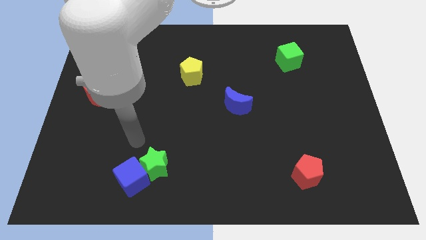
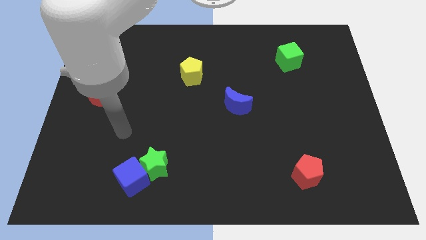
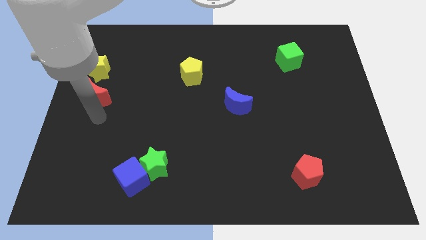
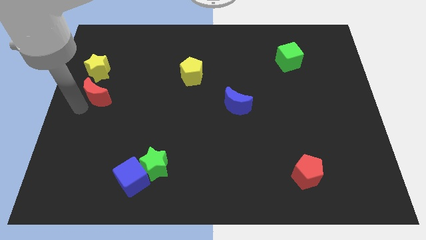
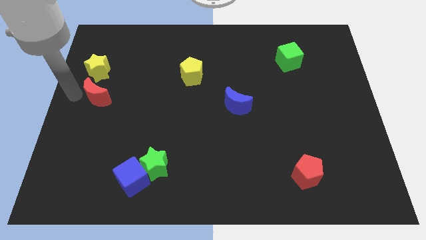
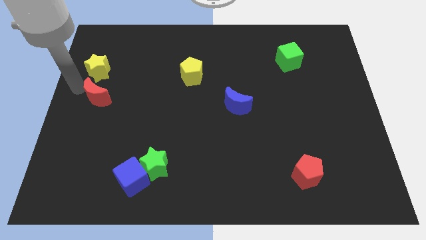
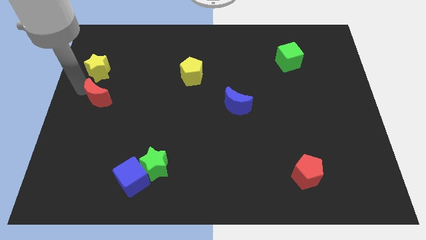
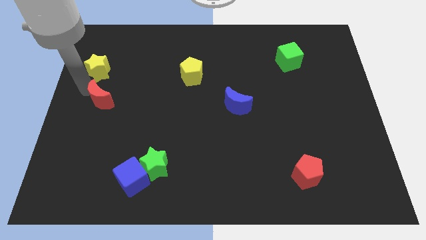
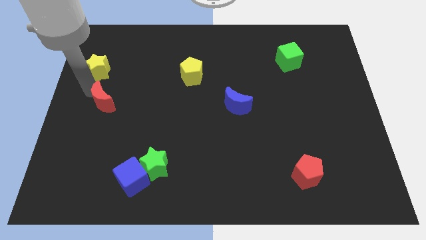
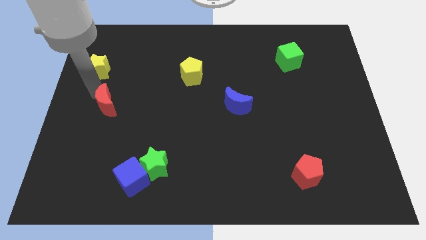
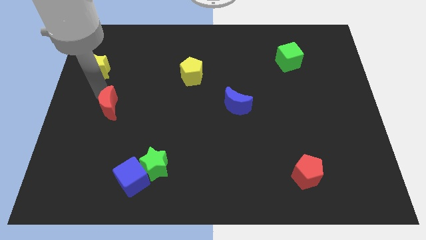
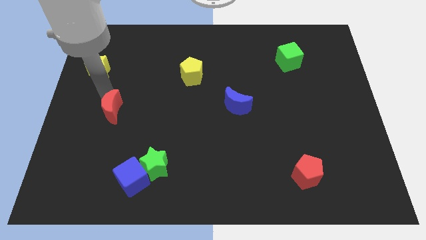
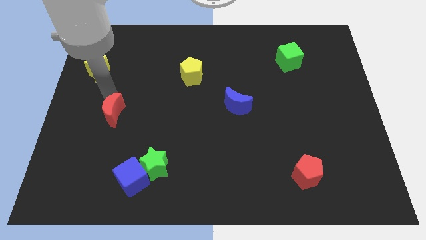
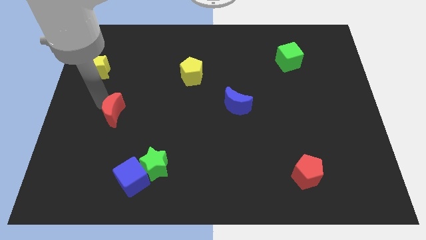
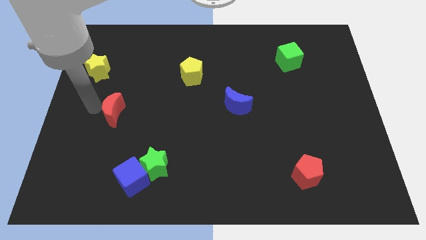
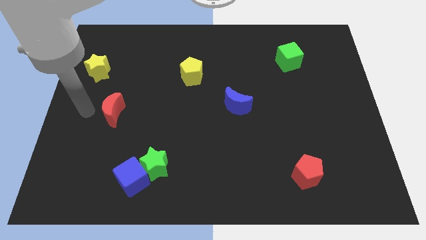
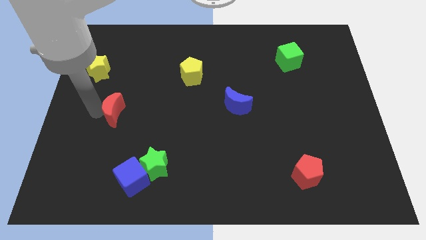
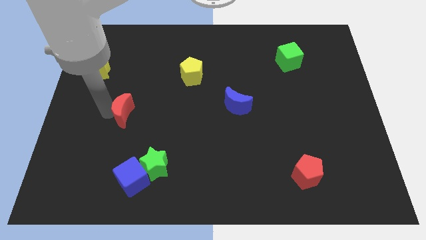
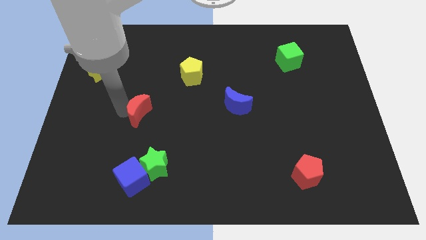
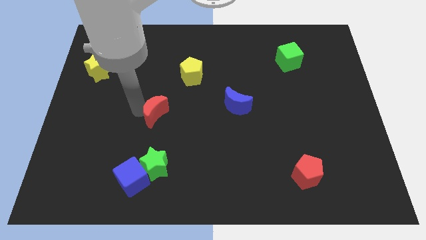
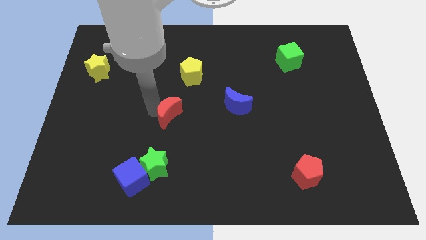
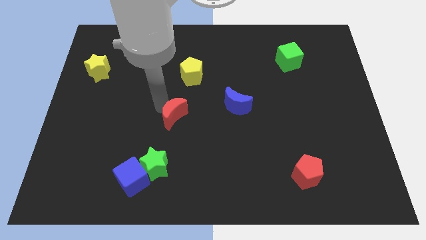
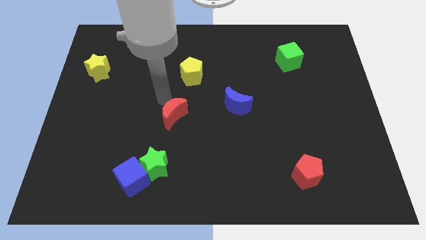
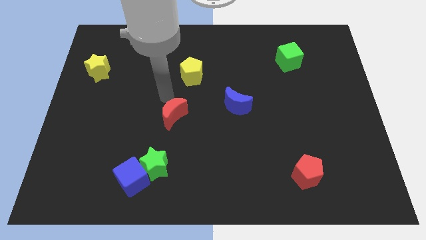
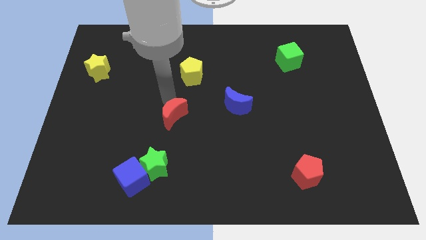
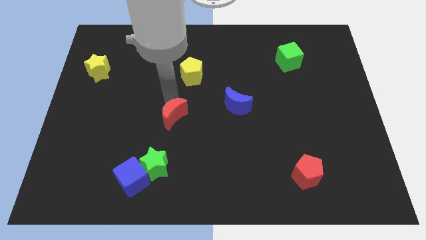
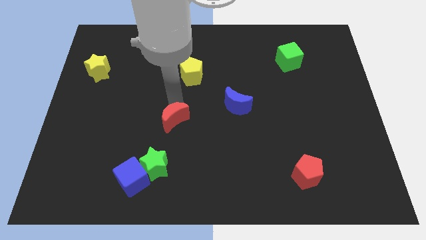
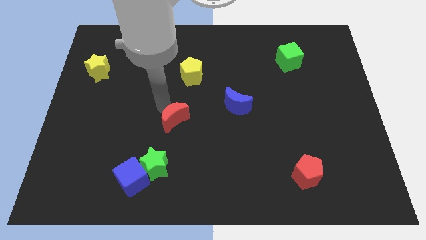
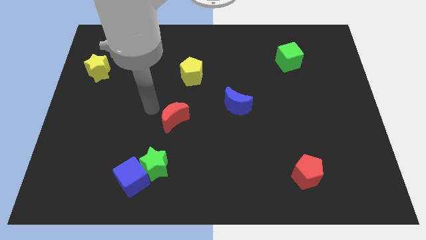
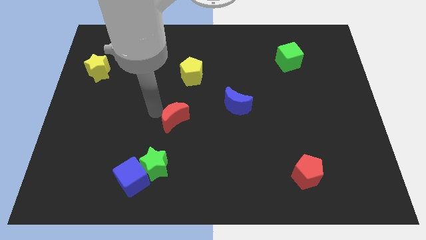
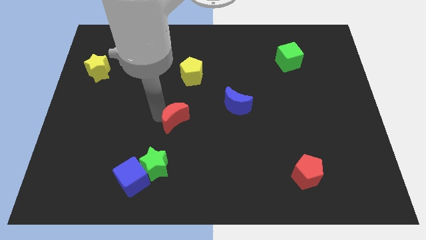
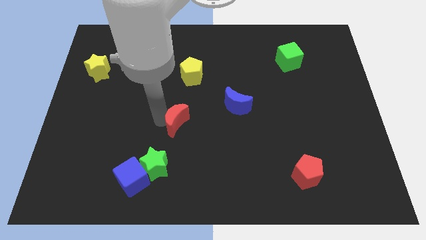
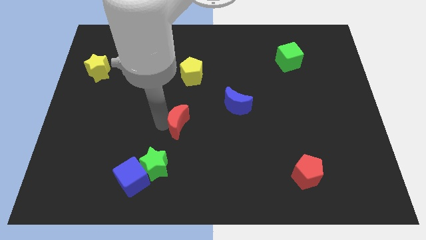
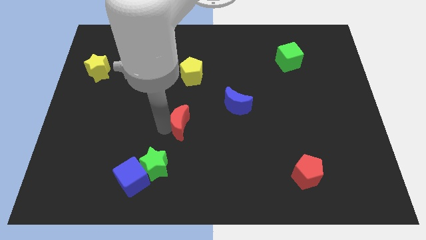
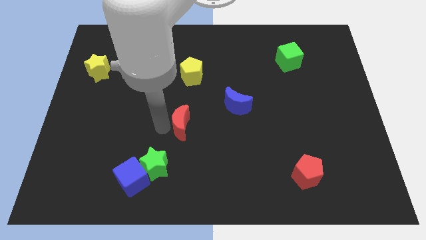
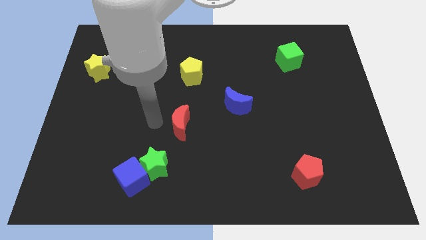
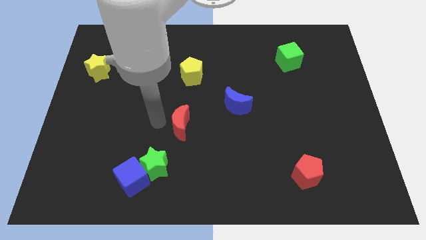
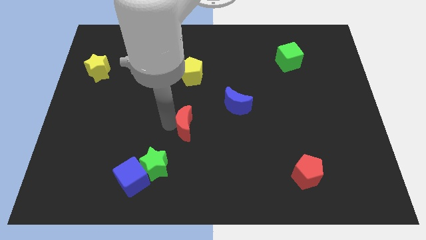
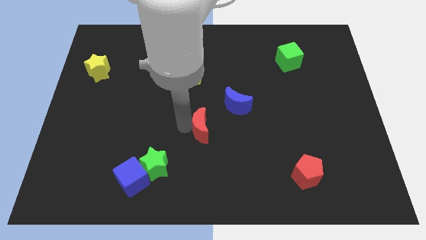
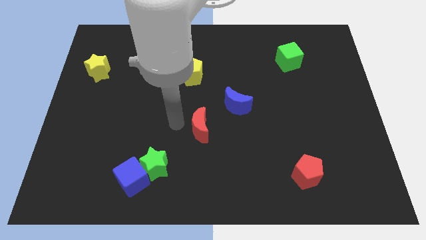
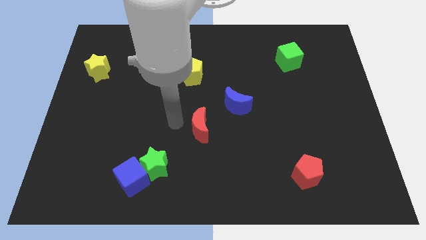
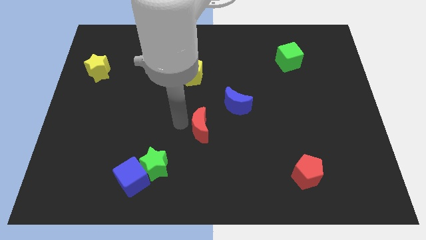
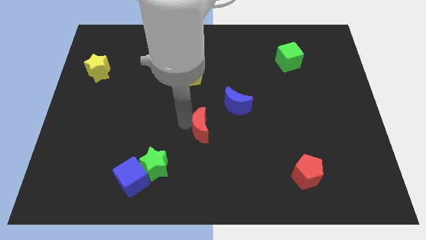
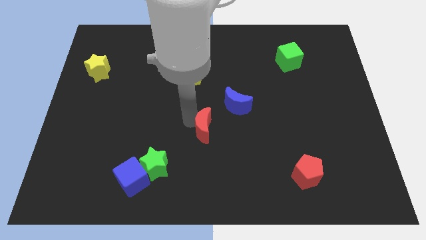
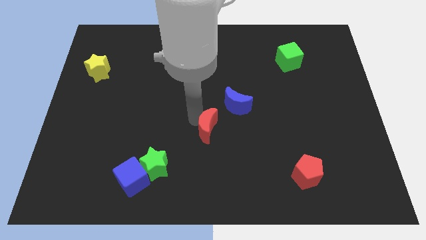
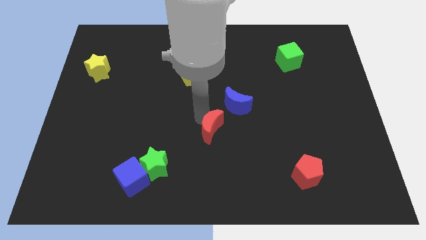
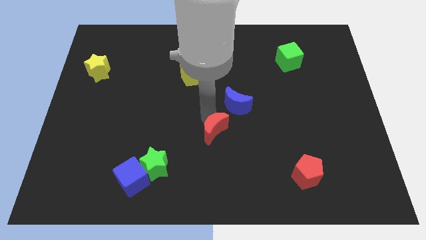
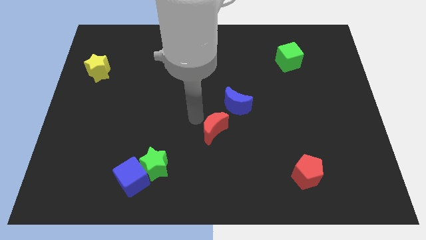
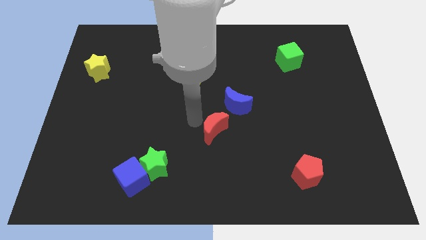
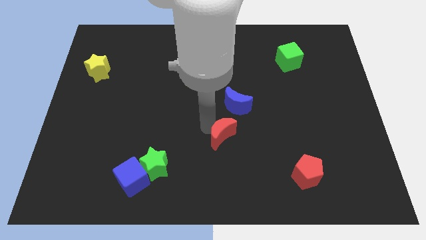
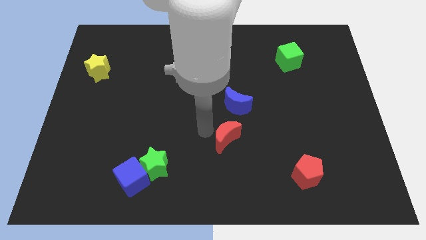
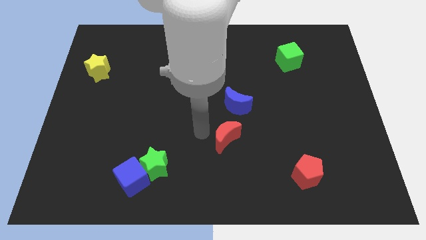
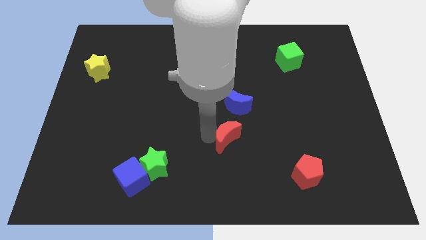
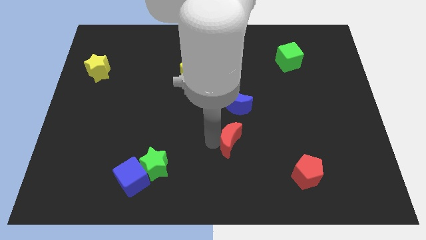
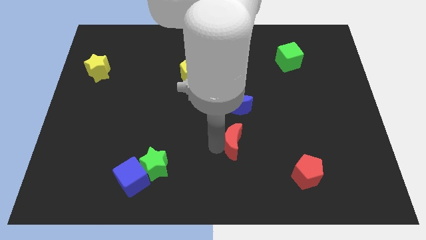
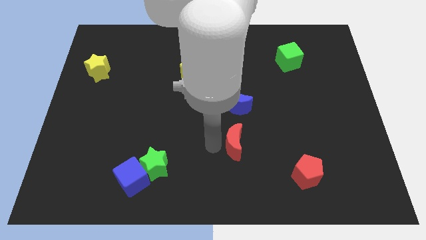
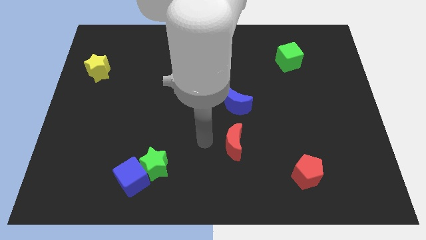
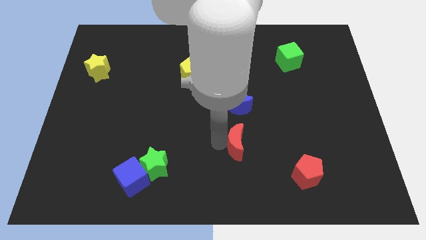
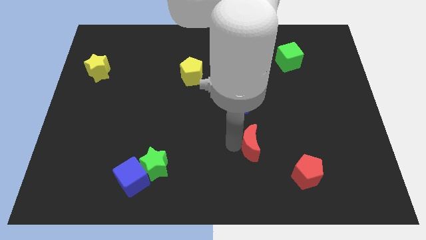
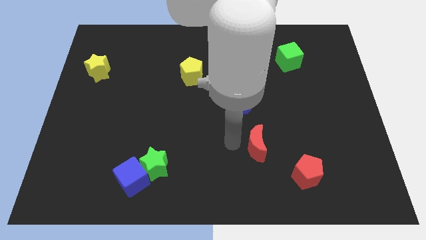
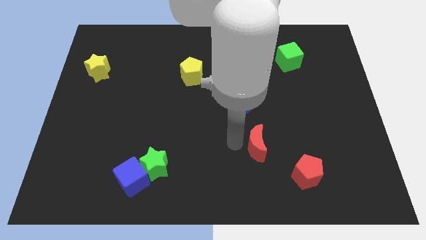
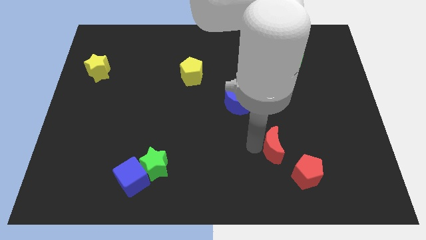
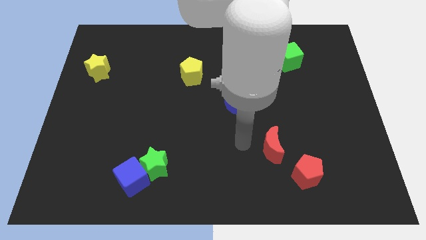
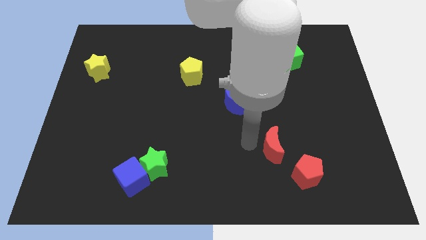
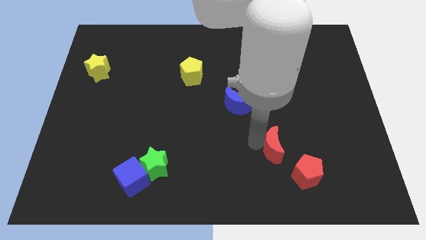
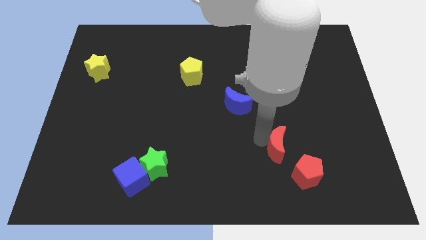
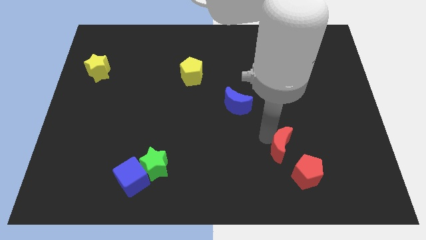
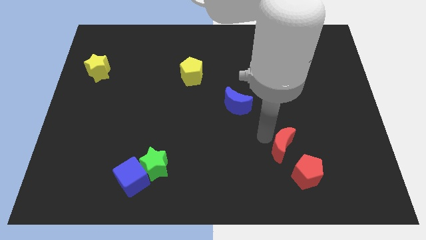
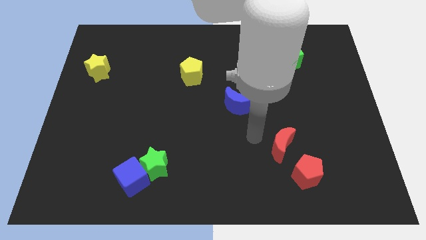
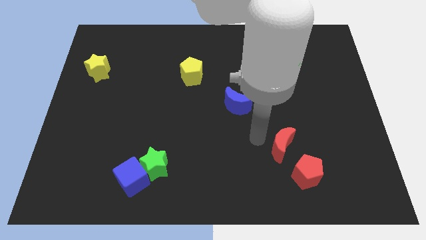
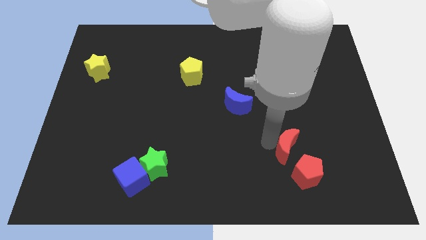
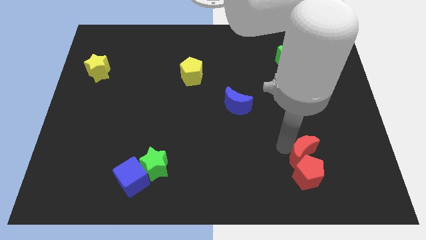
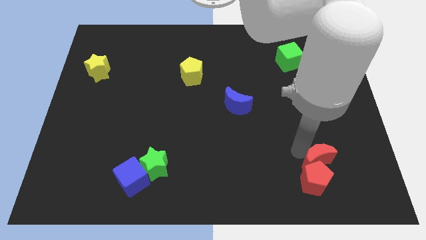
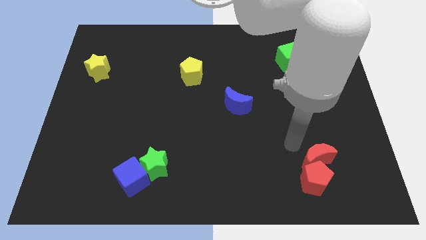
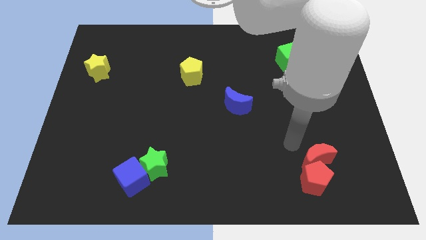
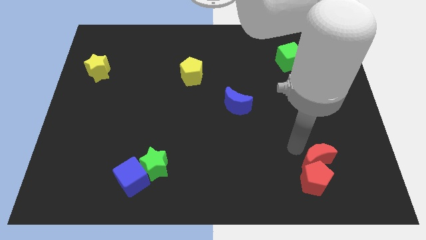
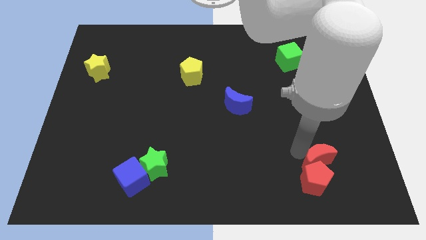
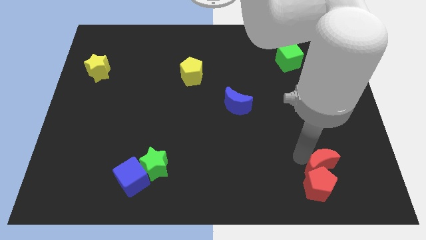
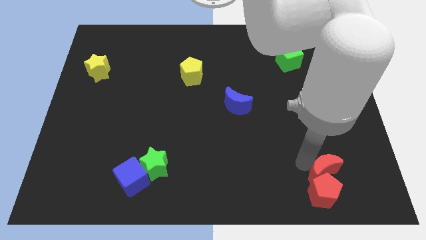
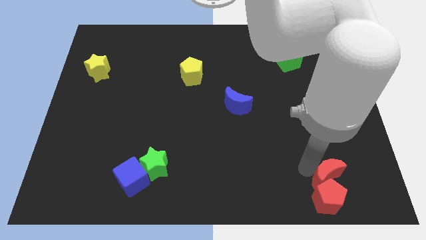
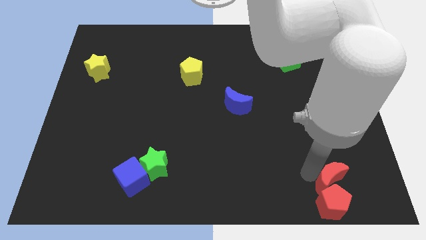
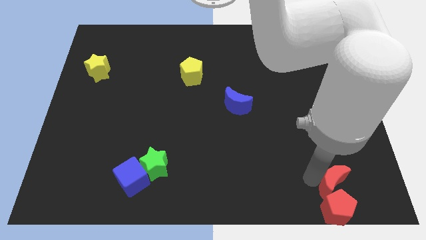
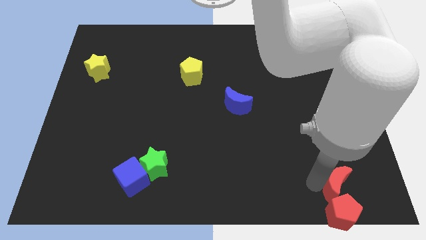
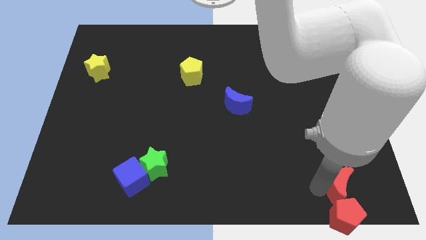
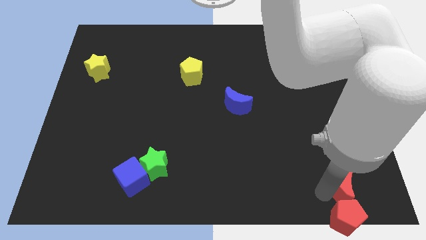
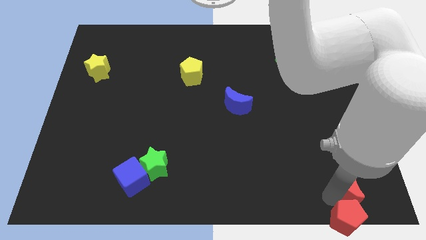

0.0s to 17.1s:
slide the red moon to the bottom right corner
